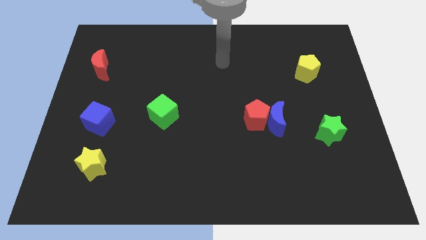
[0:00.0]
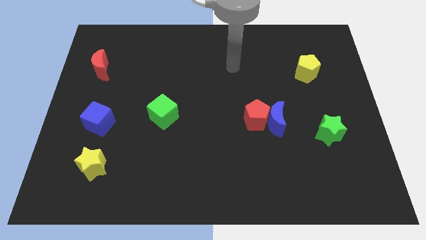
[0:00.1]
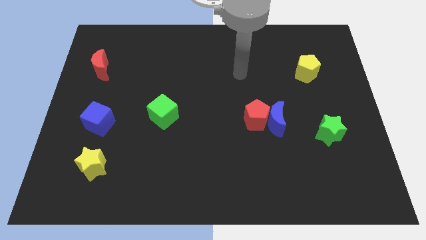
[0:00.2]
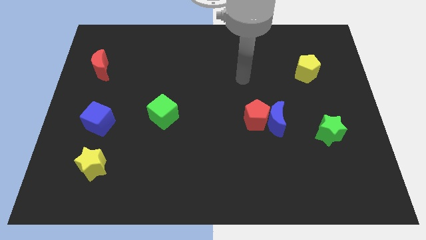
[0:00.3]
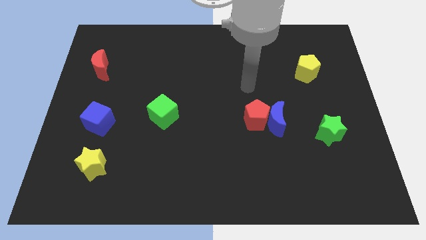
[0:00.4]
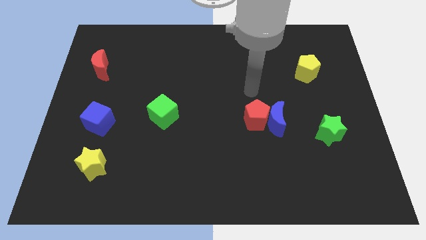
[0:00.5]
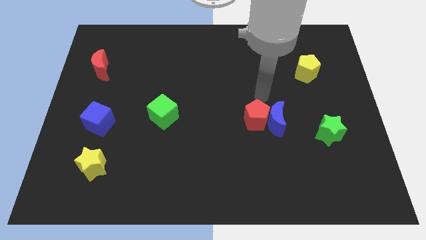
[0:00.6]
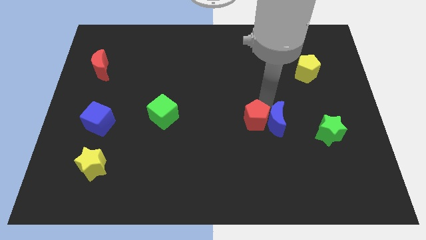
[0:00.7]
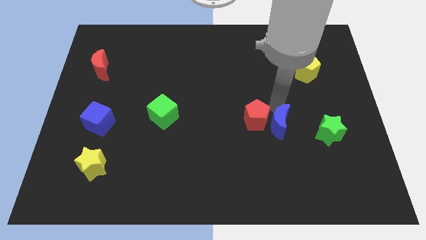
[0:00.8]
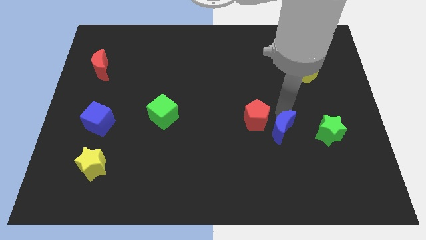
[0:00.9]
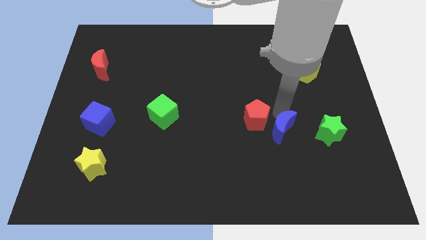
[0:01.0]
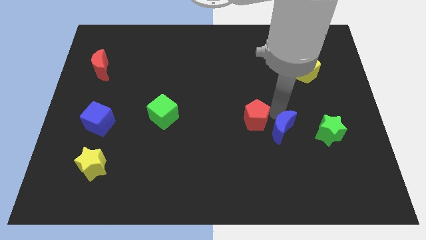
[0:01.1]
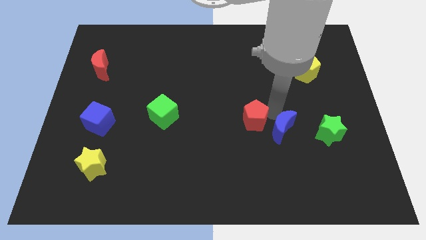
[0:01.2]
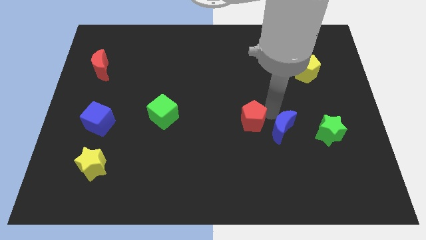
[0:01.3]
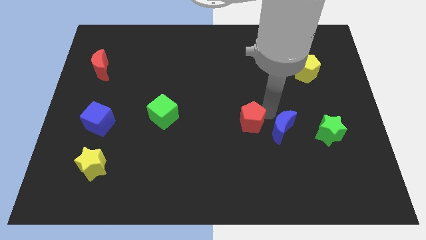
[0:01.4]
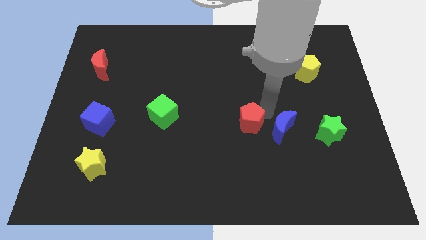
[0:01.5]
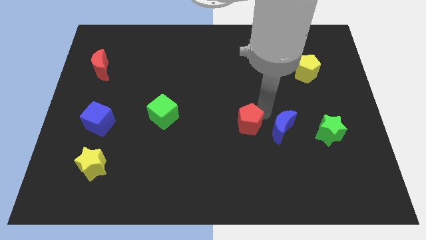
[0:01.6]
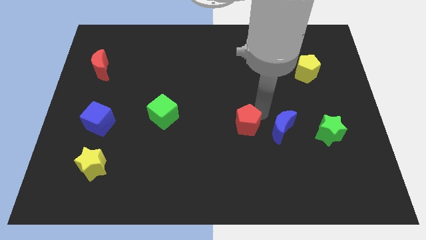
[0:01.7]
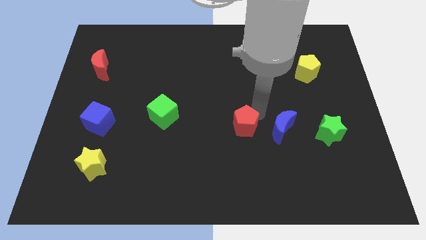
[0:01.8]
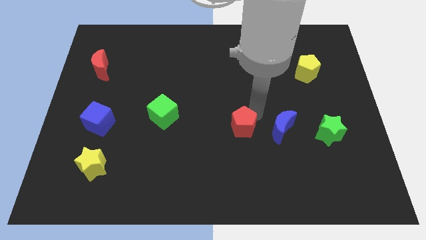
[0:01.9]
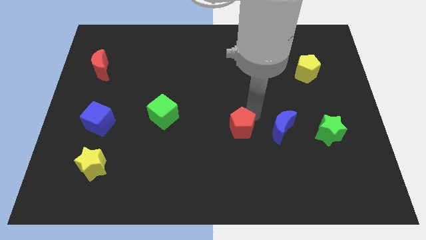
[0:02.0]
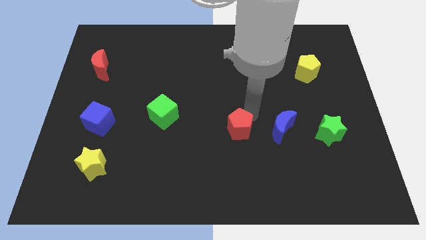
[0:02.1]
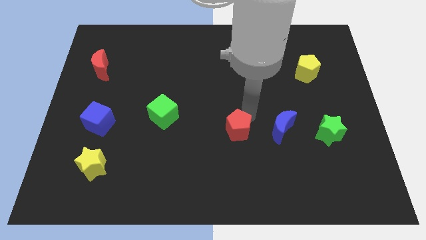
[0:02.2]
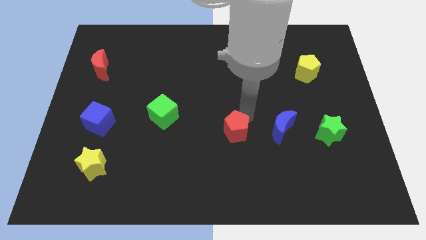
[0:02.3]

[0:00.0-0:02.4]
pull the red pentagon apart from the blue moon

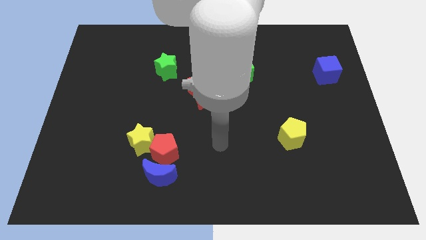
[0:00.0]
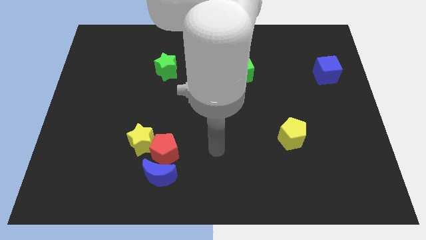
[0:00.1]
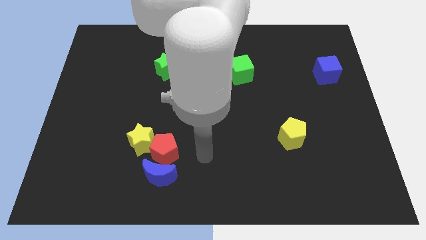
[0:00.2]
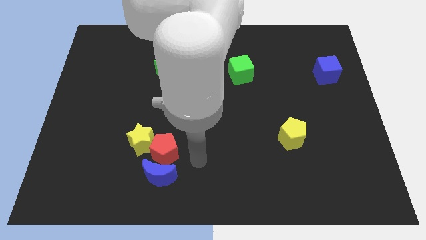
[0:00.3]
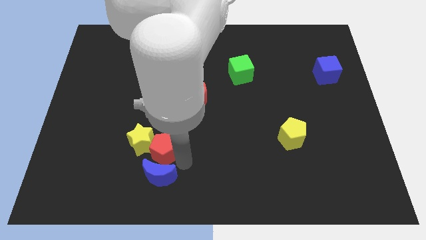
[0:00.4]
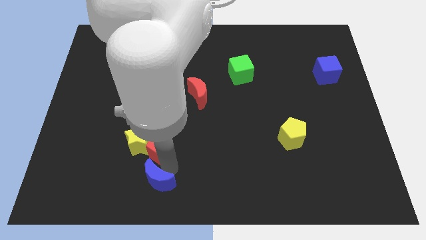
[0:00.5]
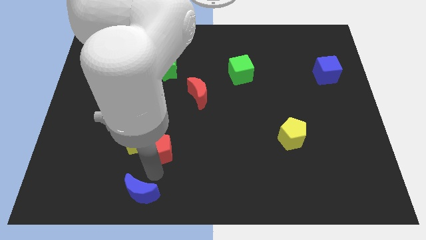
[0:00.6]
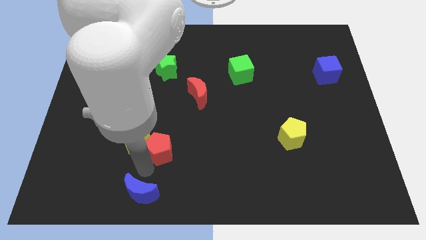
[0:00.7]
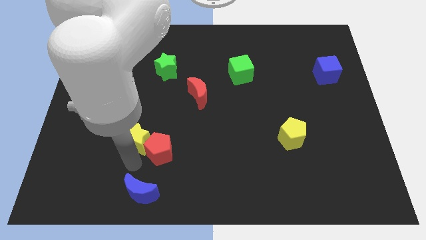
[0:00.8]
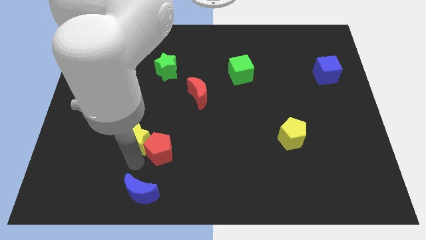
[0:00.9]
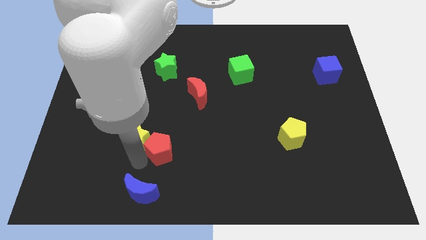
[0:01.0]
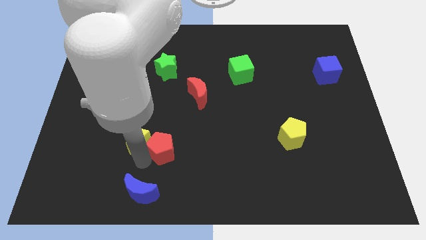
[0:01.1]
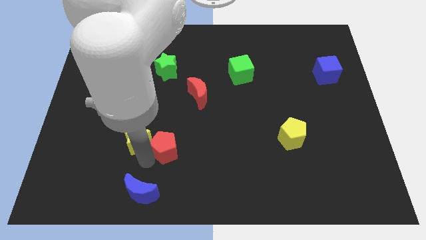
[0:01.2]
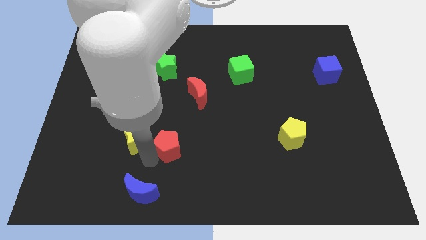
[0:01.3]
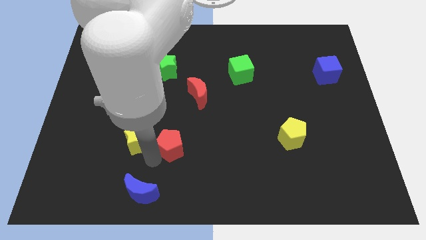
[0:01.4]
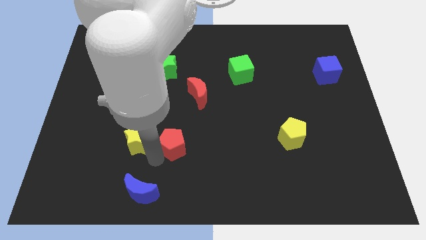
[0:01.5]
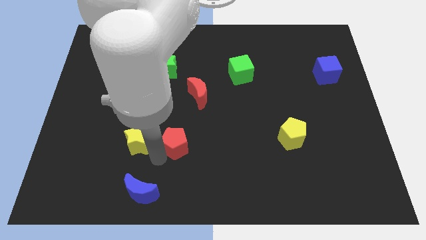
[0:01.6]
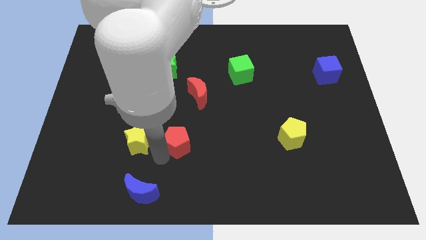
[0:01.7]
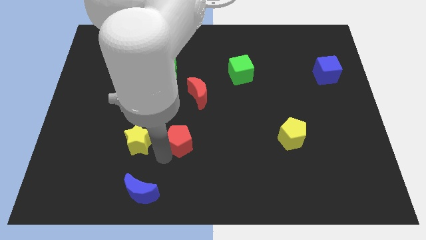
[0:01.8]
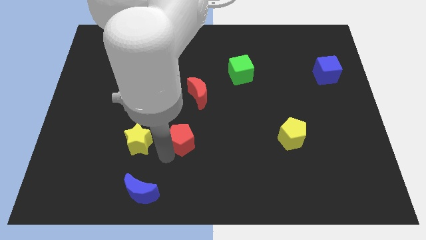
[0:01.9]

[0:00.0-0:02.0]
move the red pentagon away from the yellow star and blue moon

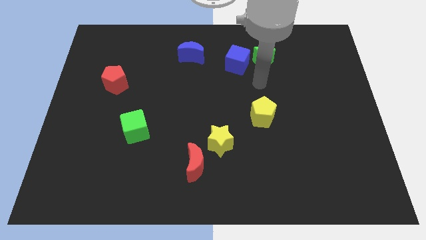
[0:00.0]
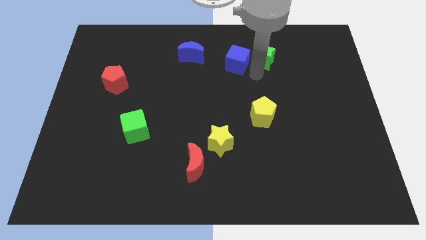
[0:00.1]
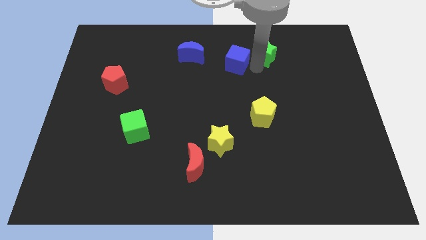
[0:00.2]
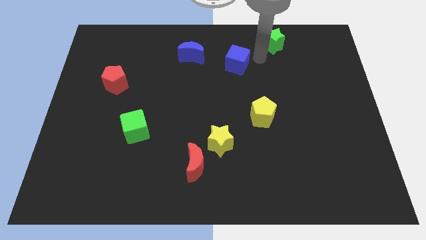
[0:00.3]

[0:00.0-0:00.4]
pull the blue cube apart from the green star

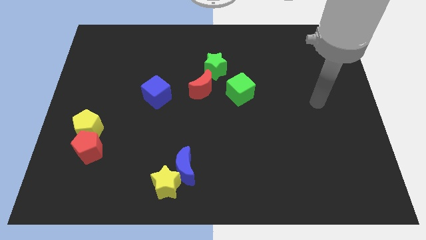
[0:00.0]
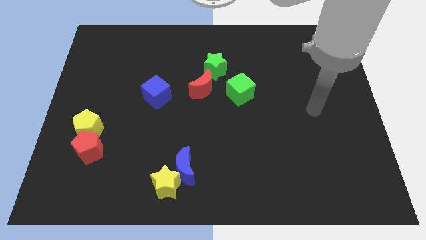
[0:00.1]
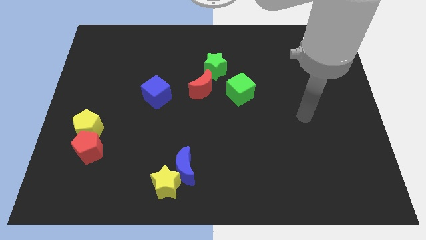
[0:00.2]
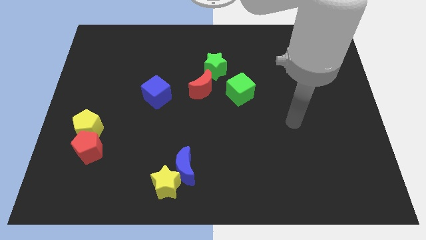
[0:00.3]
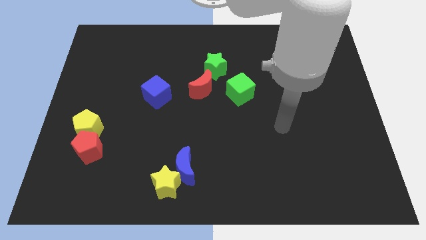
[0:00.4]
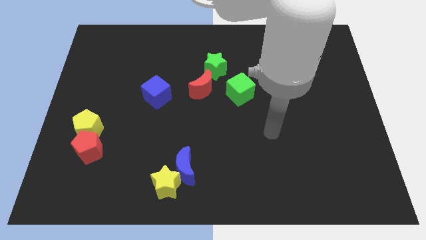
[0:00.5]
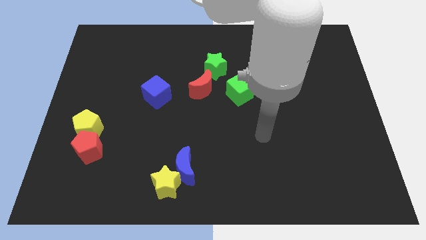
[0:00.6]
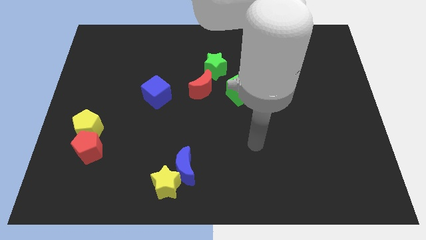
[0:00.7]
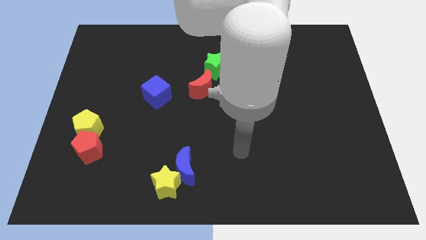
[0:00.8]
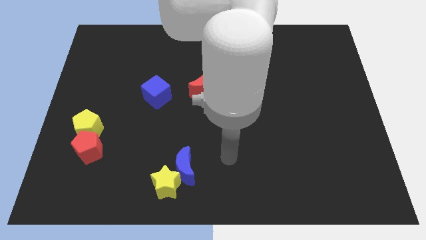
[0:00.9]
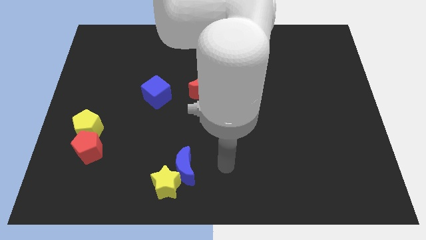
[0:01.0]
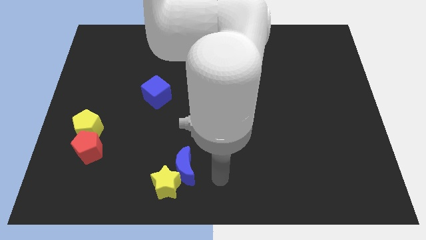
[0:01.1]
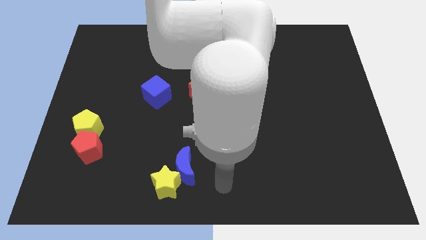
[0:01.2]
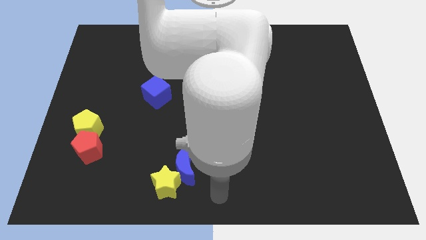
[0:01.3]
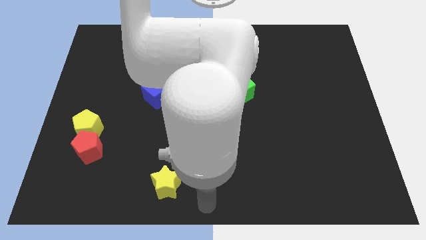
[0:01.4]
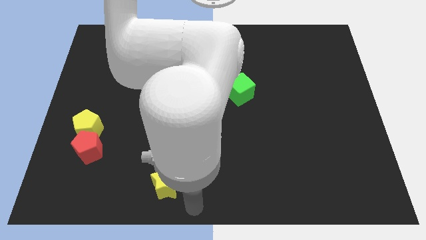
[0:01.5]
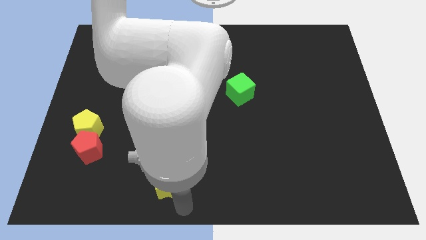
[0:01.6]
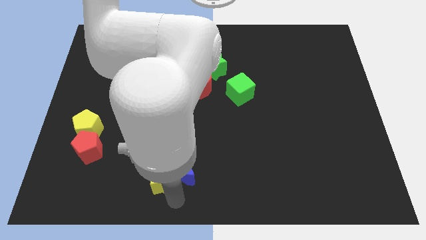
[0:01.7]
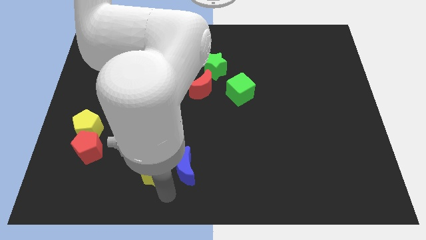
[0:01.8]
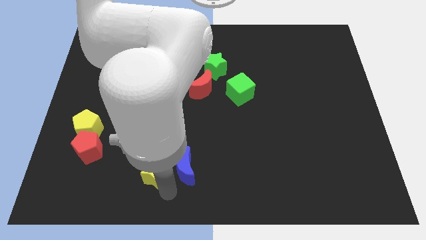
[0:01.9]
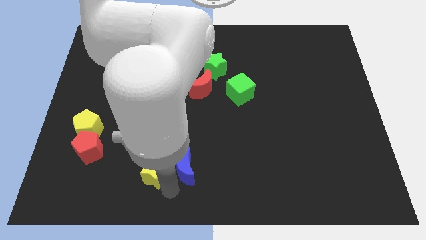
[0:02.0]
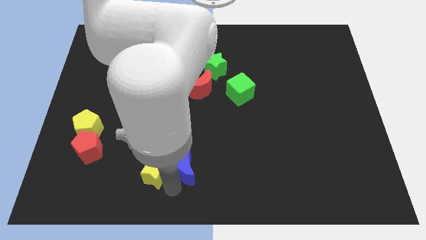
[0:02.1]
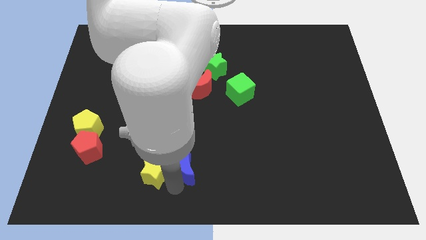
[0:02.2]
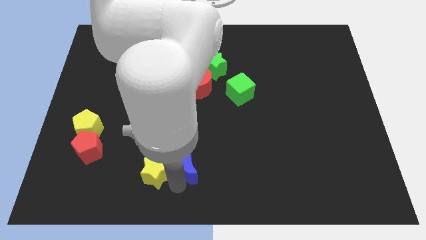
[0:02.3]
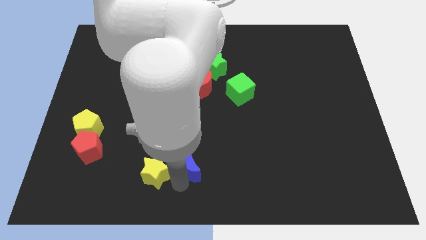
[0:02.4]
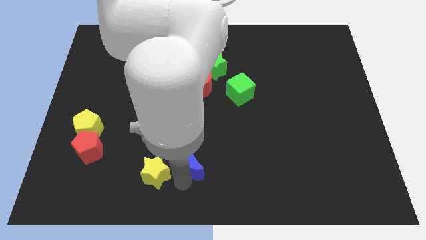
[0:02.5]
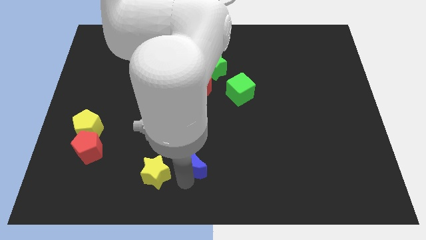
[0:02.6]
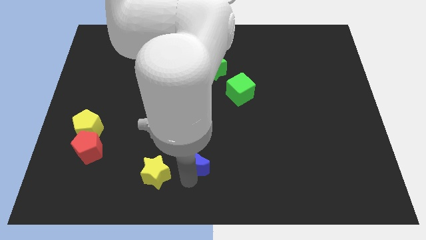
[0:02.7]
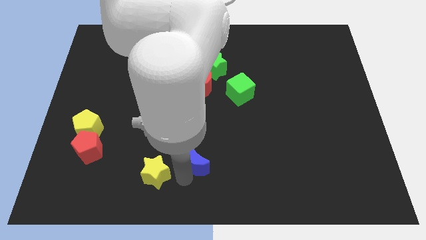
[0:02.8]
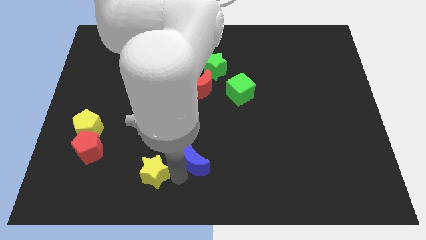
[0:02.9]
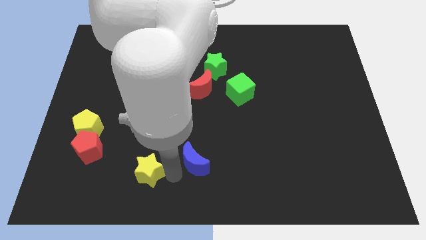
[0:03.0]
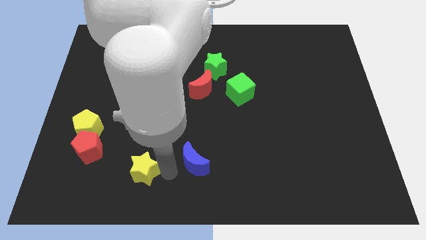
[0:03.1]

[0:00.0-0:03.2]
move the blue moon away from the yellow star

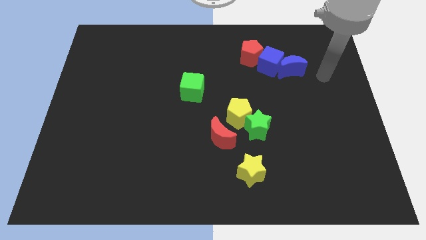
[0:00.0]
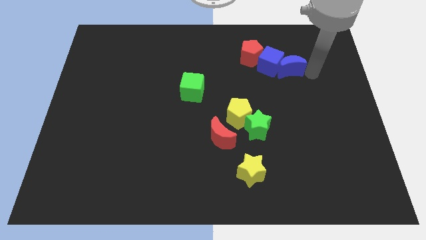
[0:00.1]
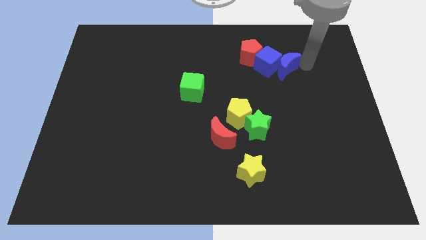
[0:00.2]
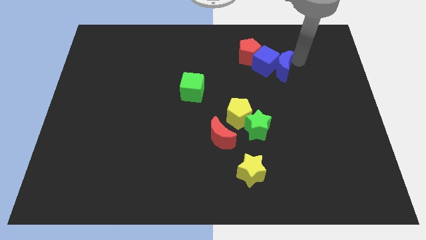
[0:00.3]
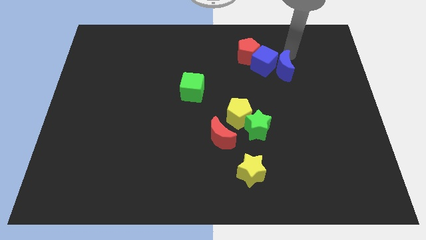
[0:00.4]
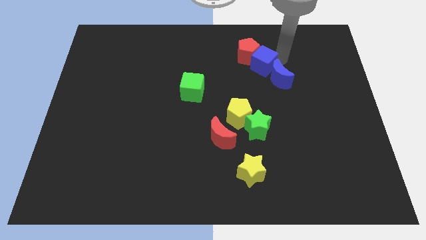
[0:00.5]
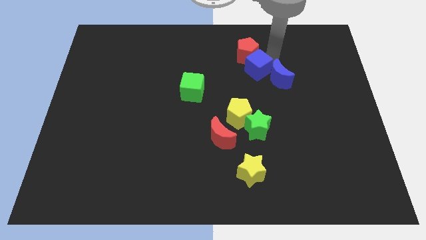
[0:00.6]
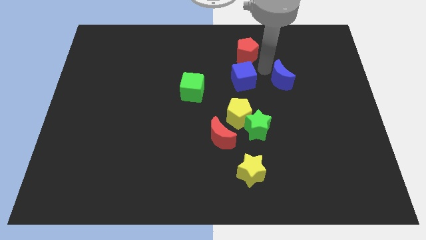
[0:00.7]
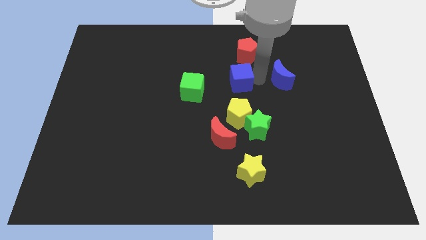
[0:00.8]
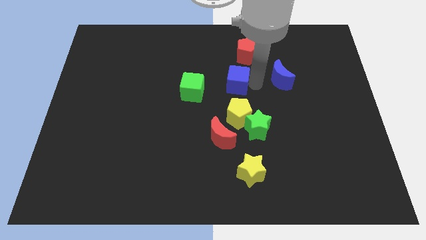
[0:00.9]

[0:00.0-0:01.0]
separate the blue moon from the blue cube

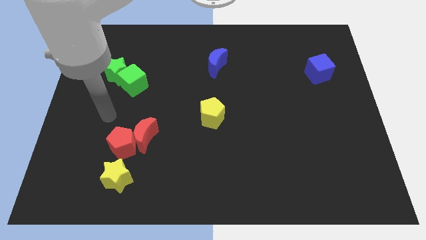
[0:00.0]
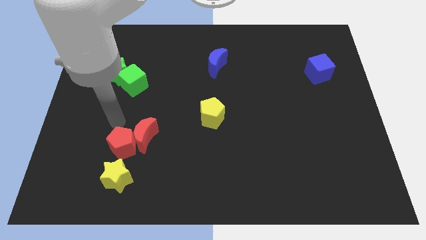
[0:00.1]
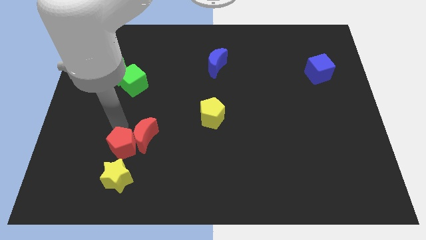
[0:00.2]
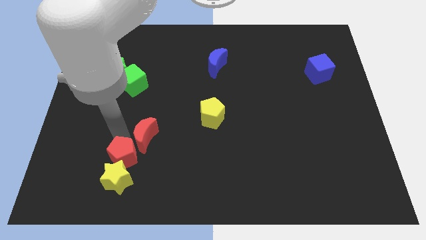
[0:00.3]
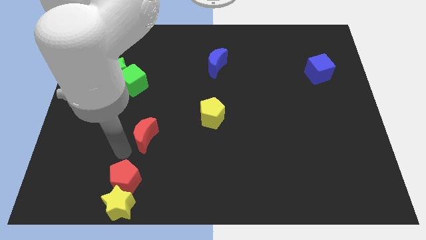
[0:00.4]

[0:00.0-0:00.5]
separate the red moon from the red pentagon
